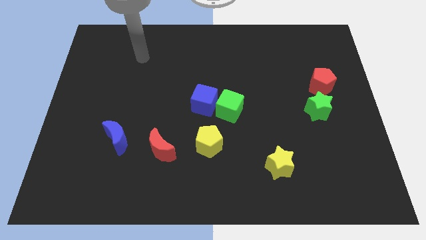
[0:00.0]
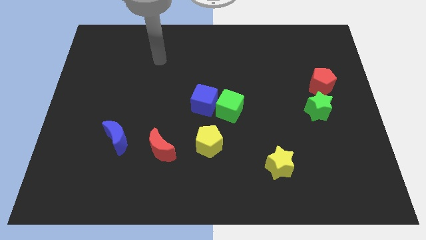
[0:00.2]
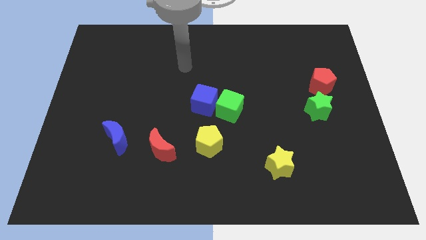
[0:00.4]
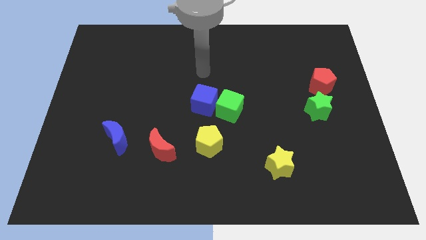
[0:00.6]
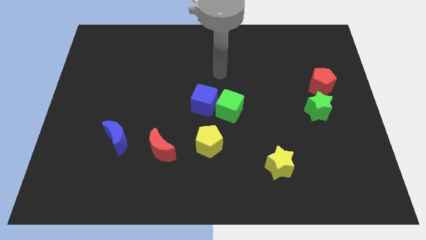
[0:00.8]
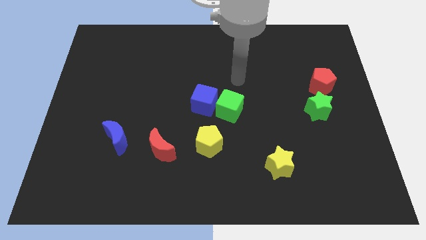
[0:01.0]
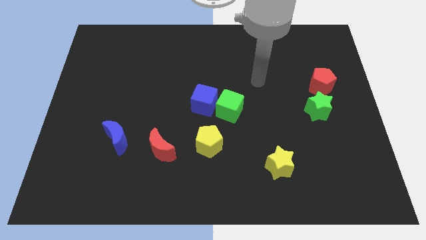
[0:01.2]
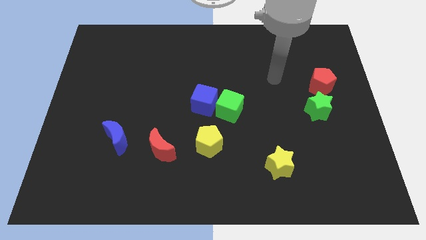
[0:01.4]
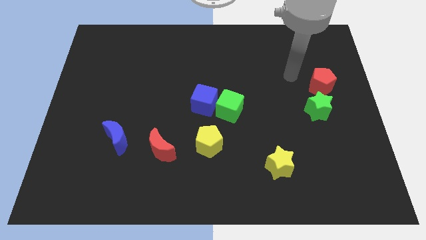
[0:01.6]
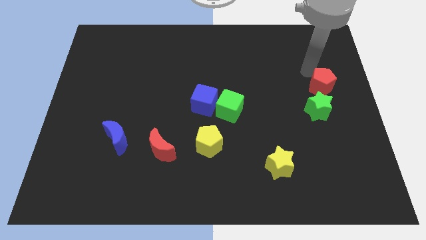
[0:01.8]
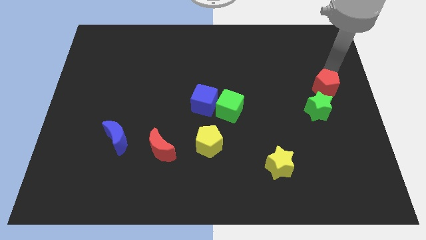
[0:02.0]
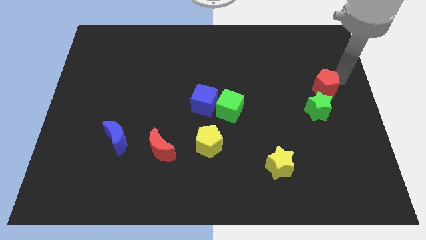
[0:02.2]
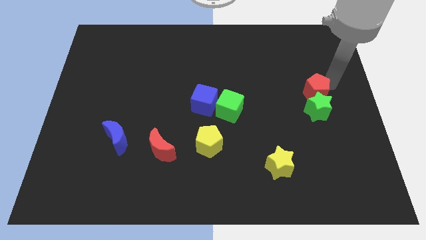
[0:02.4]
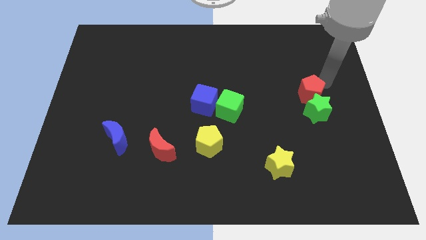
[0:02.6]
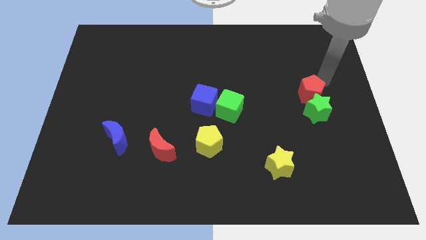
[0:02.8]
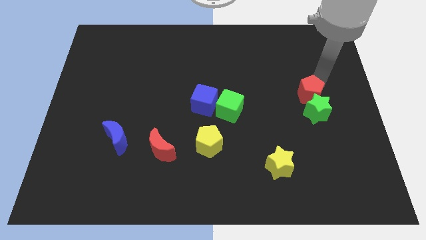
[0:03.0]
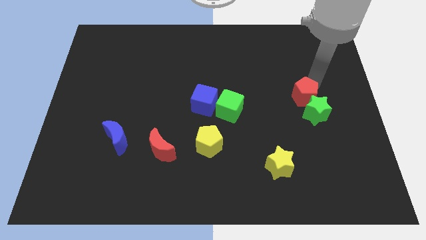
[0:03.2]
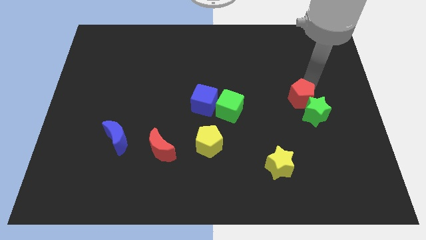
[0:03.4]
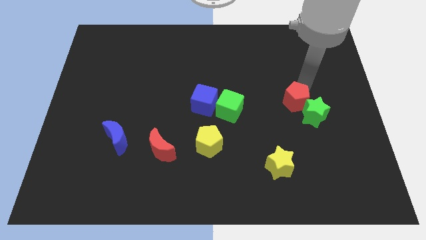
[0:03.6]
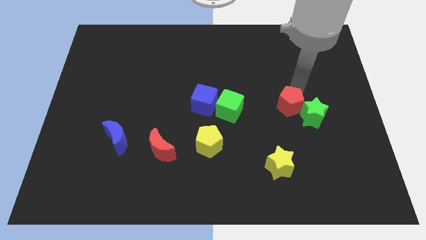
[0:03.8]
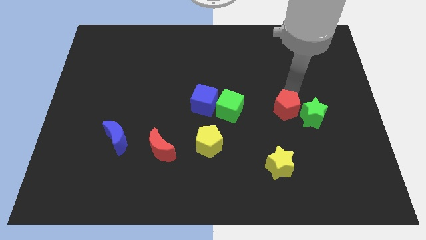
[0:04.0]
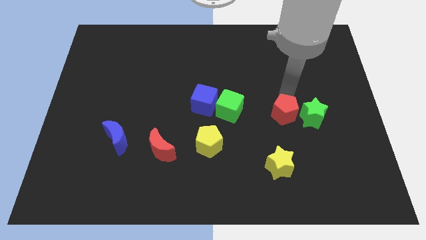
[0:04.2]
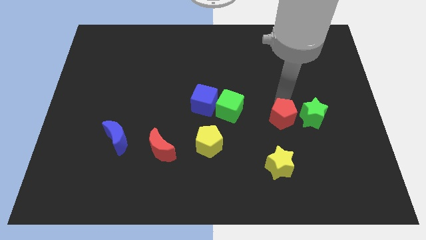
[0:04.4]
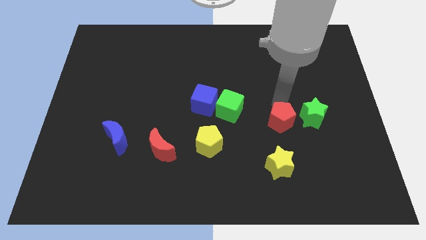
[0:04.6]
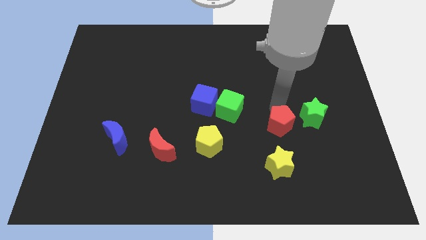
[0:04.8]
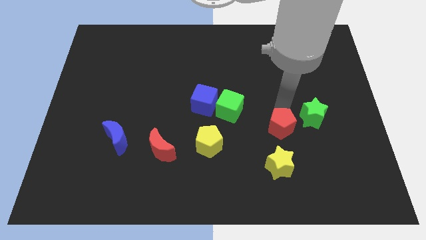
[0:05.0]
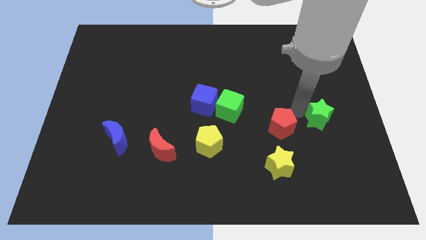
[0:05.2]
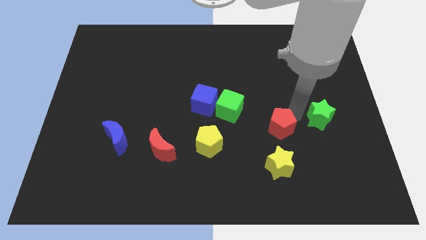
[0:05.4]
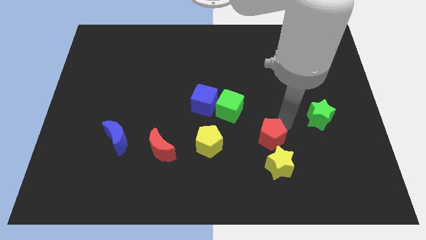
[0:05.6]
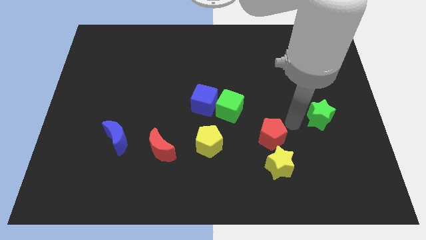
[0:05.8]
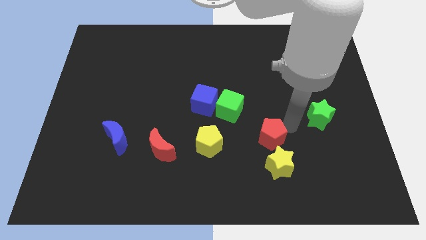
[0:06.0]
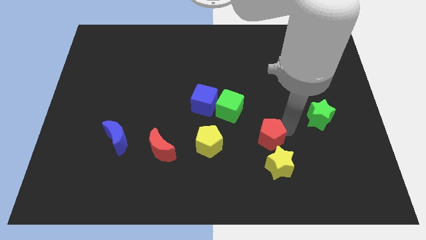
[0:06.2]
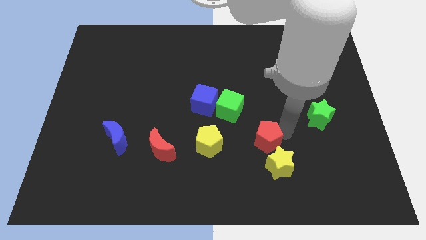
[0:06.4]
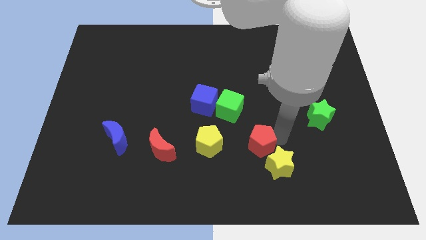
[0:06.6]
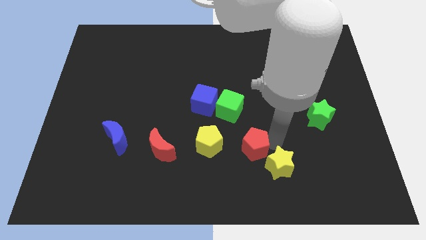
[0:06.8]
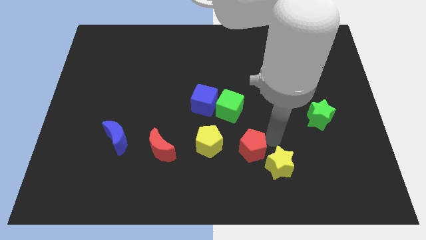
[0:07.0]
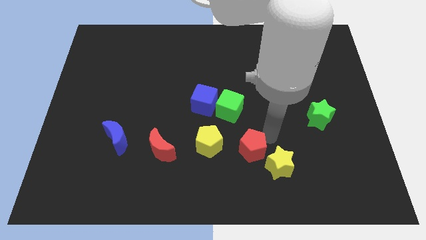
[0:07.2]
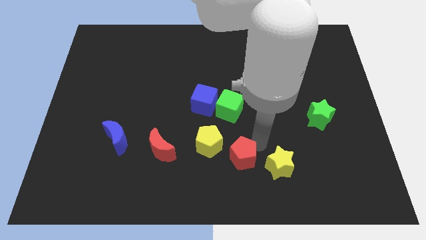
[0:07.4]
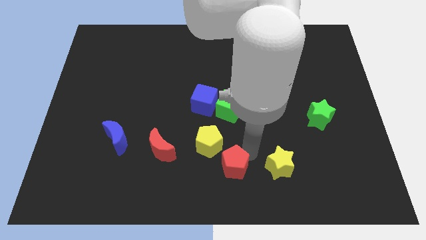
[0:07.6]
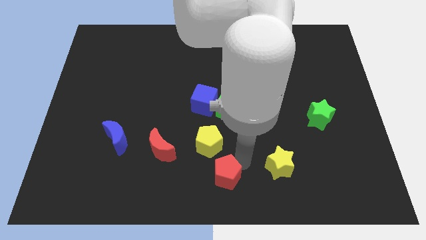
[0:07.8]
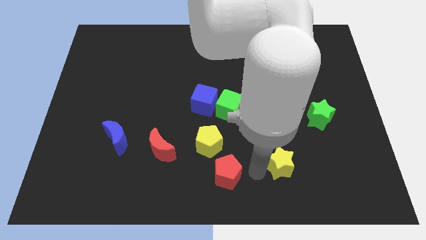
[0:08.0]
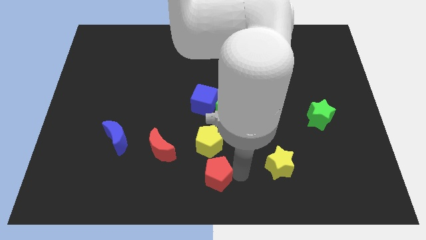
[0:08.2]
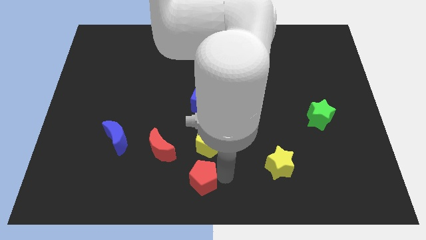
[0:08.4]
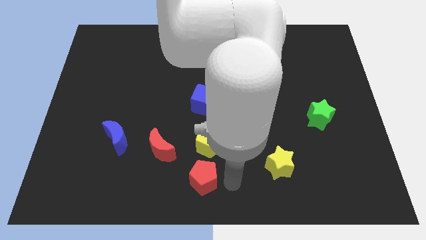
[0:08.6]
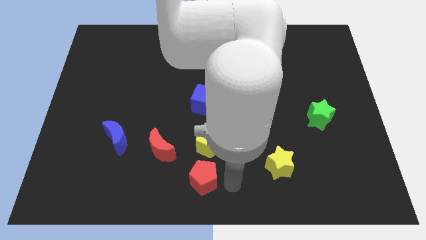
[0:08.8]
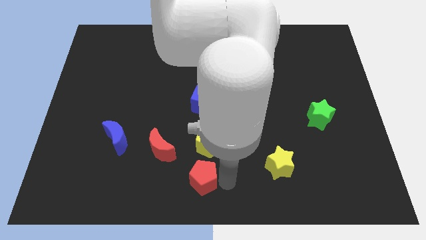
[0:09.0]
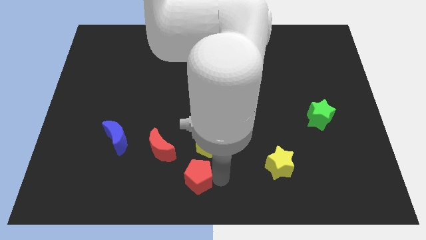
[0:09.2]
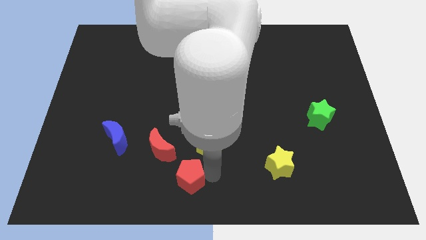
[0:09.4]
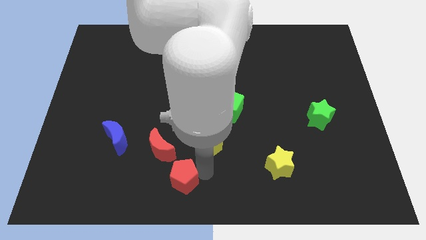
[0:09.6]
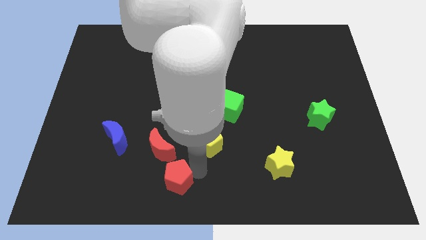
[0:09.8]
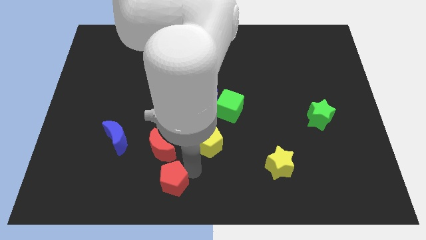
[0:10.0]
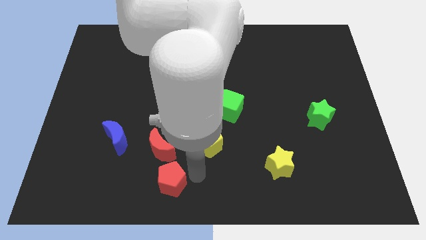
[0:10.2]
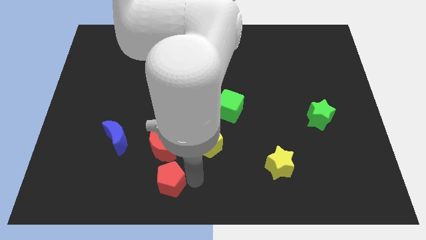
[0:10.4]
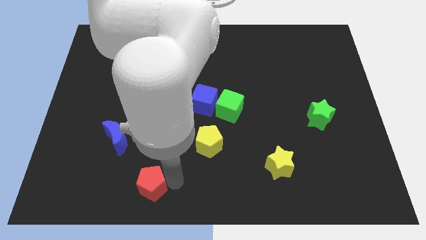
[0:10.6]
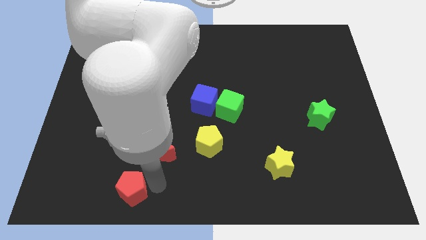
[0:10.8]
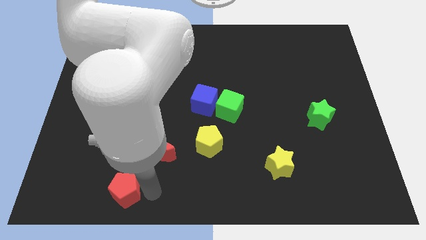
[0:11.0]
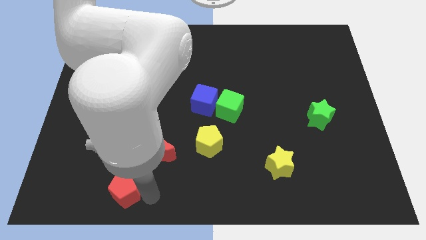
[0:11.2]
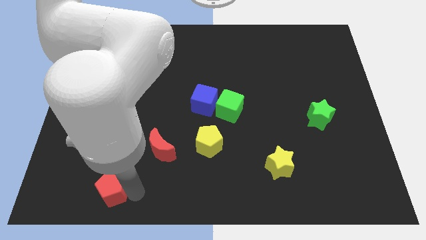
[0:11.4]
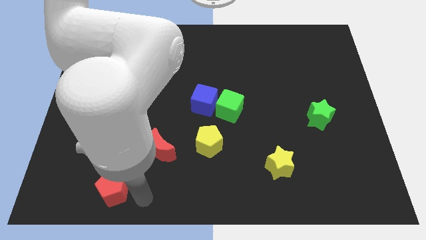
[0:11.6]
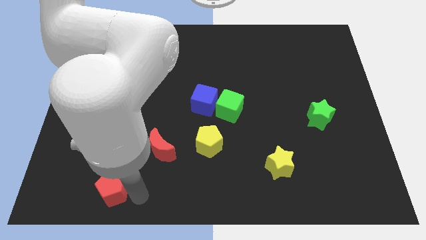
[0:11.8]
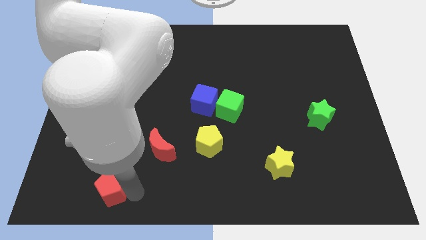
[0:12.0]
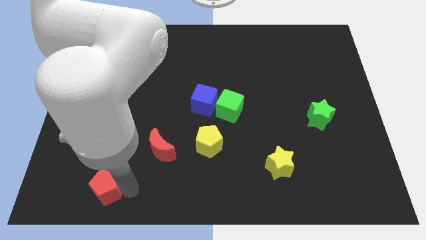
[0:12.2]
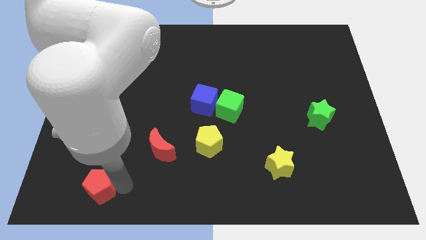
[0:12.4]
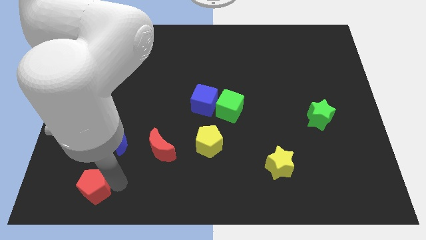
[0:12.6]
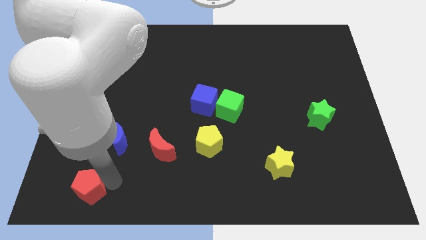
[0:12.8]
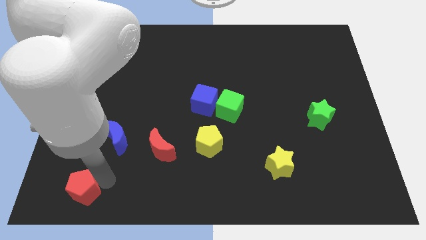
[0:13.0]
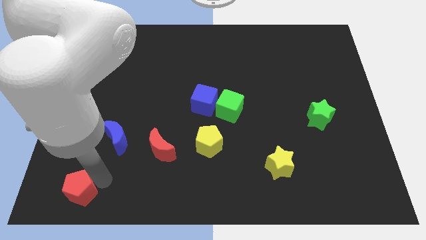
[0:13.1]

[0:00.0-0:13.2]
push the red pentagon to the bottom left

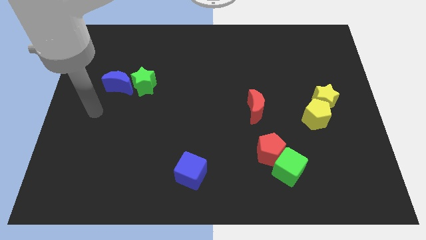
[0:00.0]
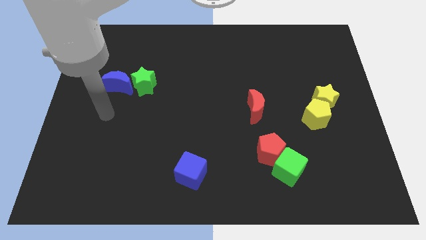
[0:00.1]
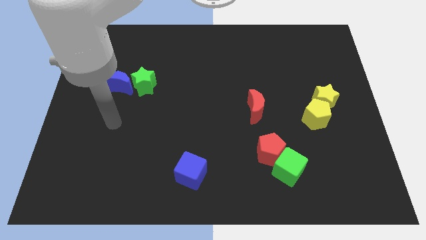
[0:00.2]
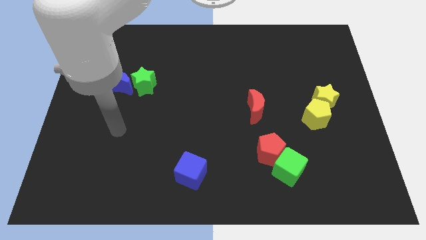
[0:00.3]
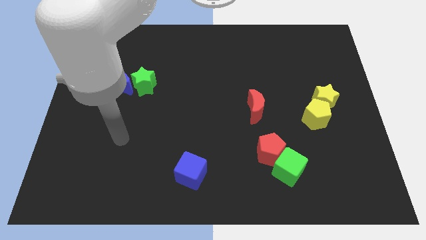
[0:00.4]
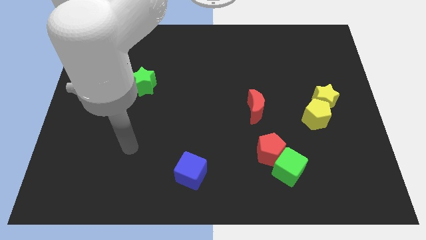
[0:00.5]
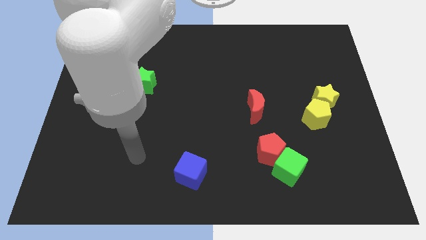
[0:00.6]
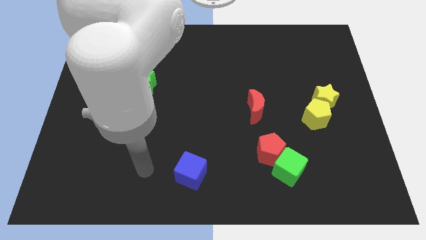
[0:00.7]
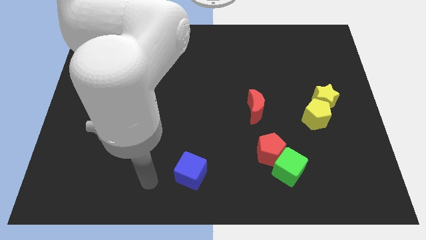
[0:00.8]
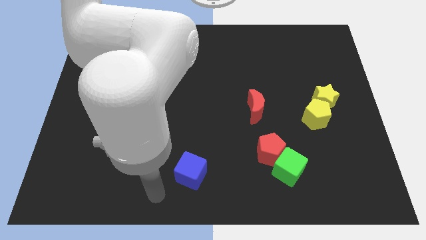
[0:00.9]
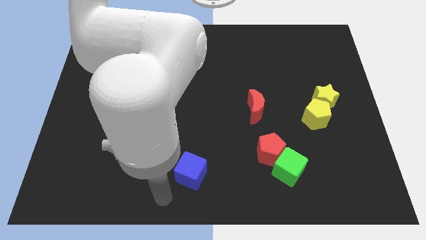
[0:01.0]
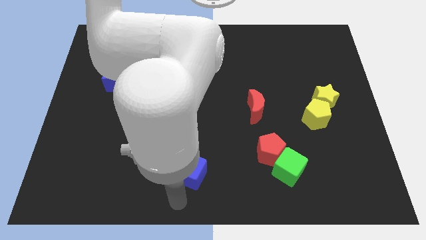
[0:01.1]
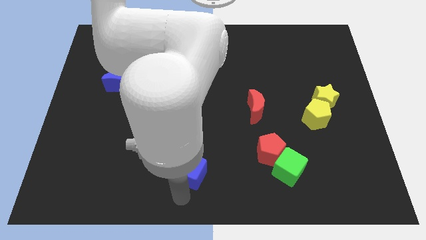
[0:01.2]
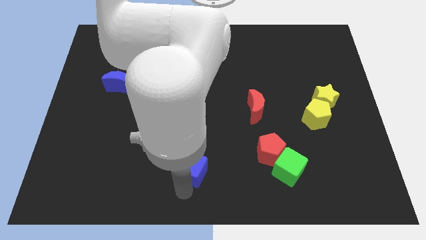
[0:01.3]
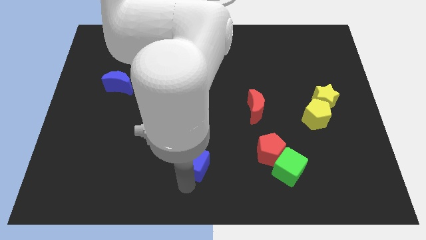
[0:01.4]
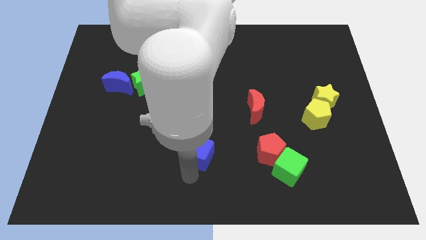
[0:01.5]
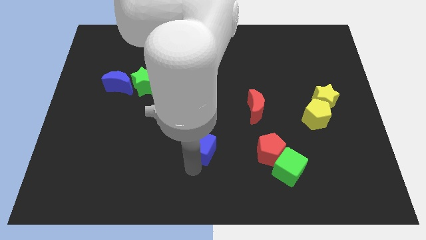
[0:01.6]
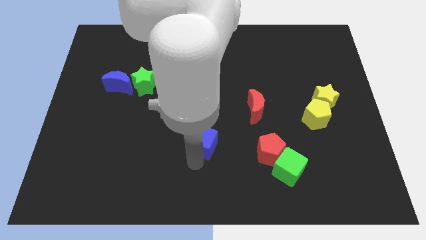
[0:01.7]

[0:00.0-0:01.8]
slide the blue cube to the middle of the board
